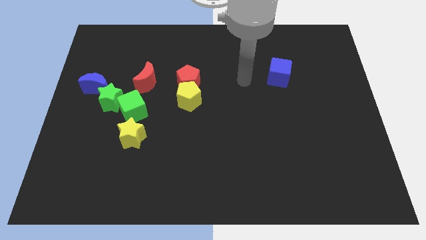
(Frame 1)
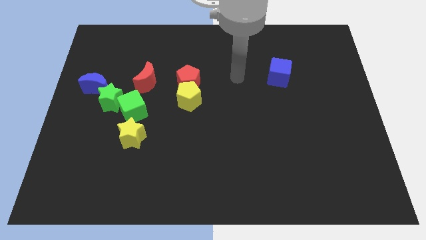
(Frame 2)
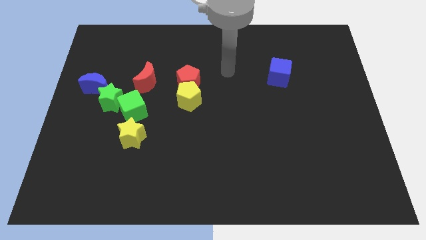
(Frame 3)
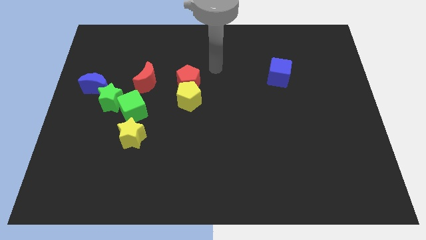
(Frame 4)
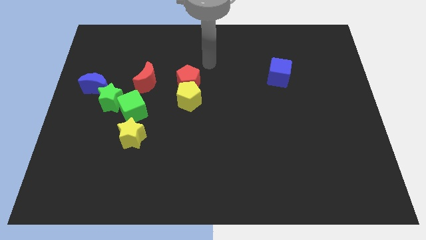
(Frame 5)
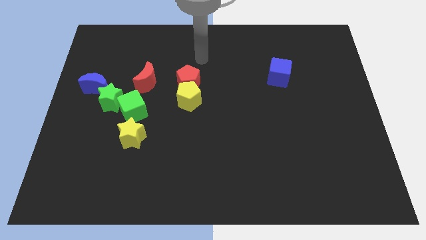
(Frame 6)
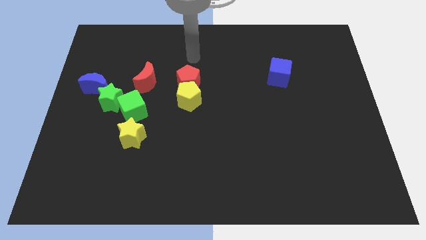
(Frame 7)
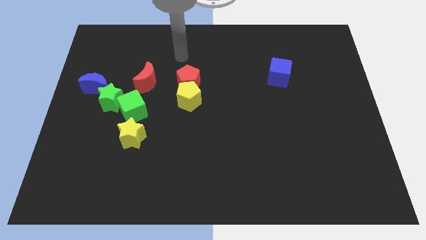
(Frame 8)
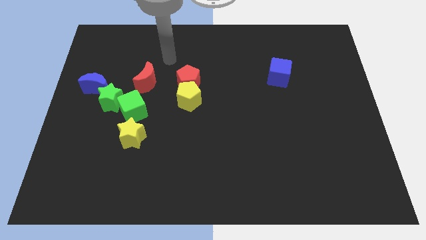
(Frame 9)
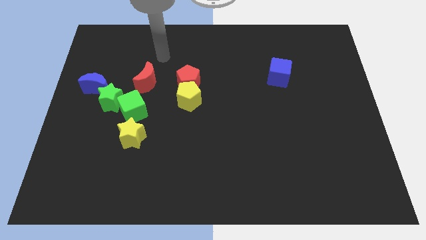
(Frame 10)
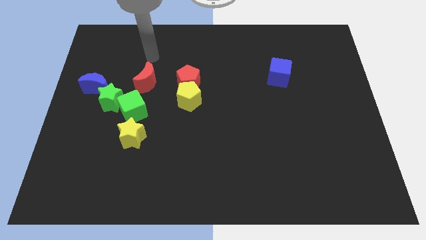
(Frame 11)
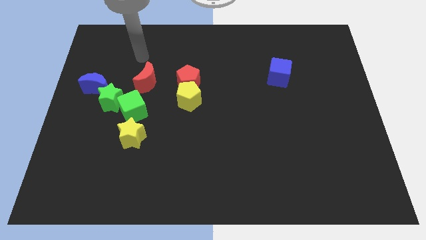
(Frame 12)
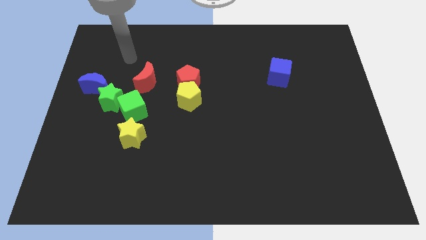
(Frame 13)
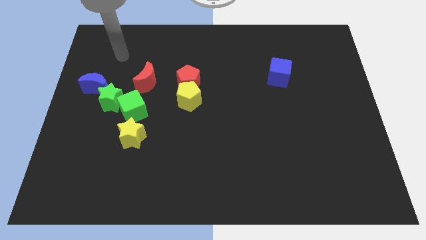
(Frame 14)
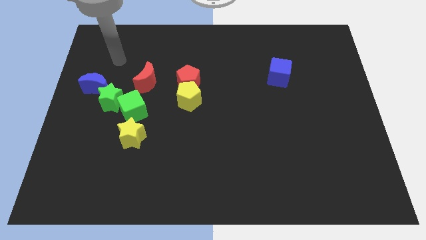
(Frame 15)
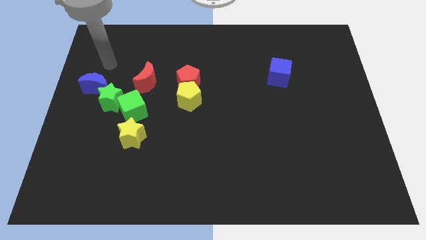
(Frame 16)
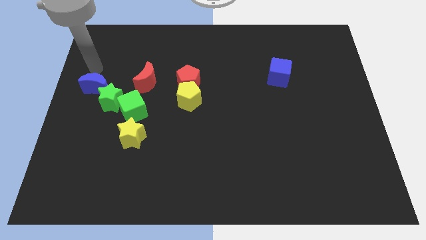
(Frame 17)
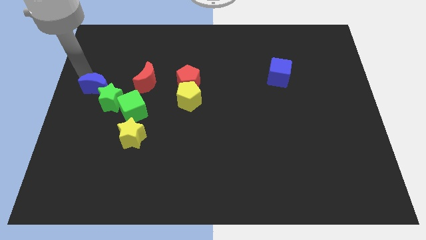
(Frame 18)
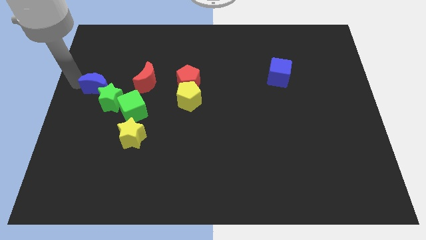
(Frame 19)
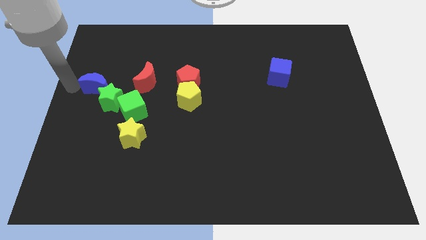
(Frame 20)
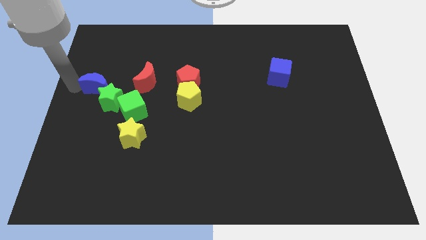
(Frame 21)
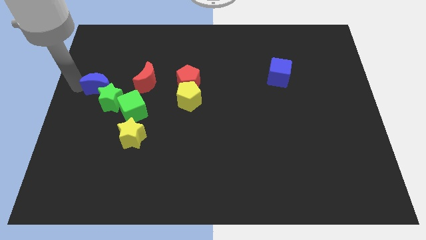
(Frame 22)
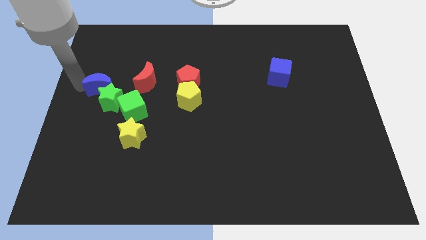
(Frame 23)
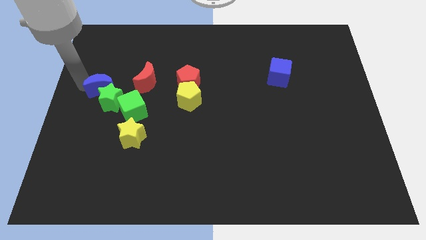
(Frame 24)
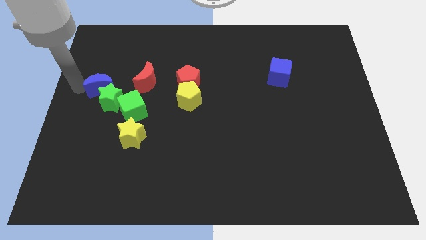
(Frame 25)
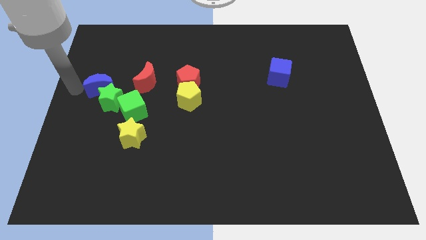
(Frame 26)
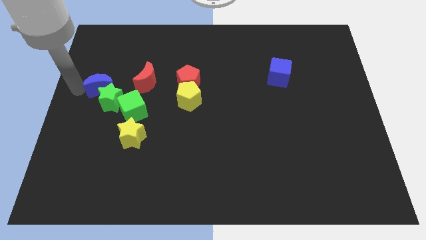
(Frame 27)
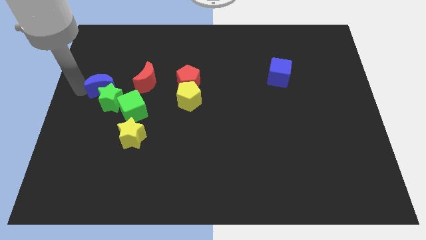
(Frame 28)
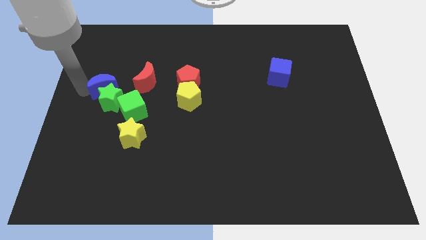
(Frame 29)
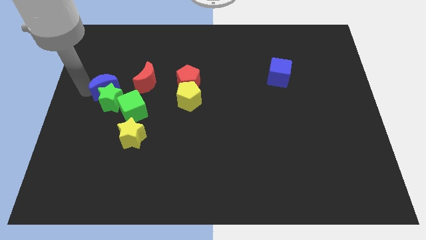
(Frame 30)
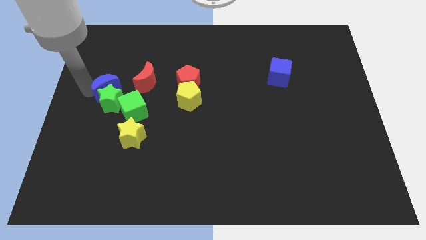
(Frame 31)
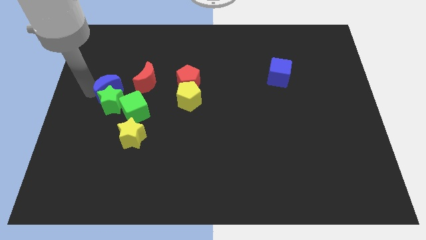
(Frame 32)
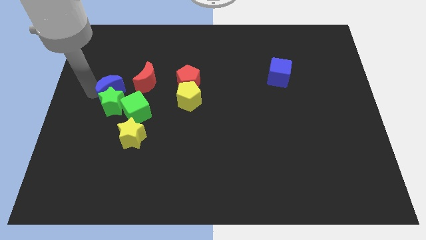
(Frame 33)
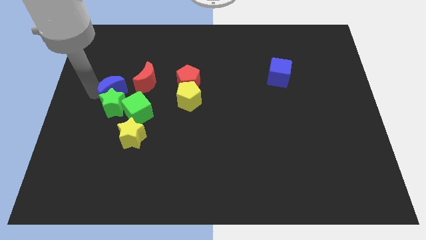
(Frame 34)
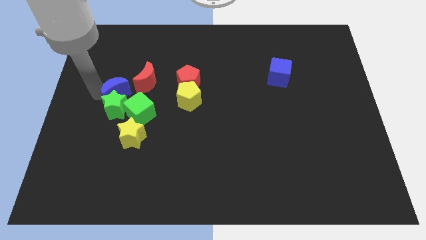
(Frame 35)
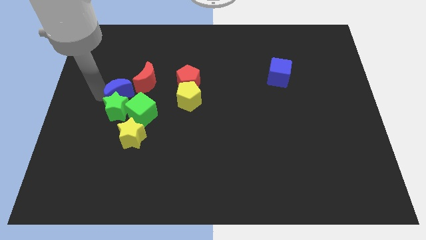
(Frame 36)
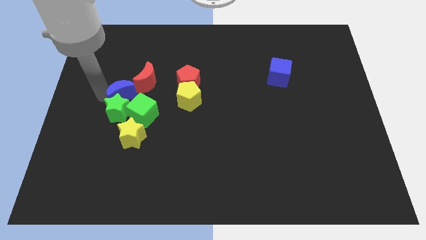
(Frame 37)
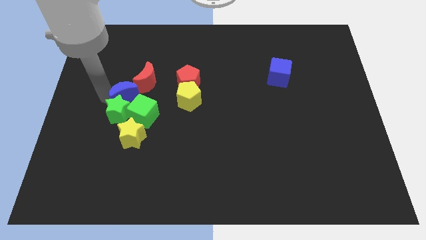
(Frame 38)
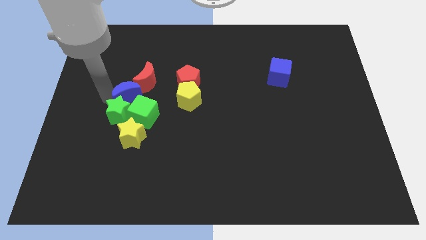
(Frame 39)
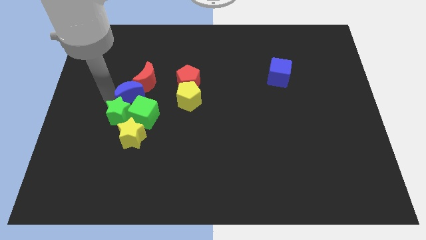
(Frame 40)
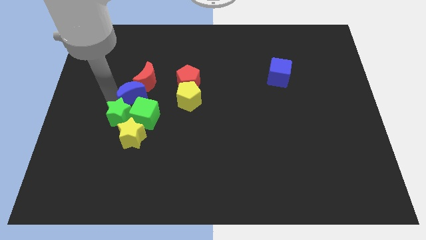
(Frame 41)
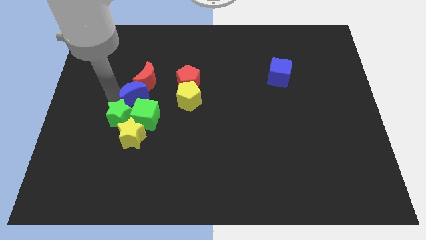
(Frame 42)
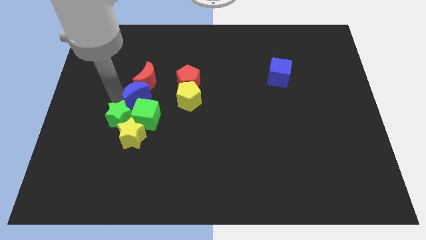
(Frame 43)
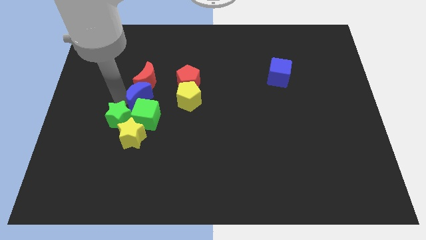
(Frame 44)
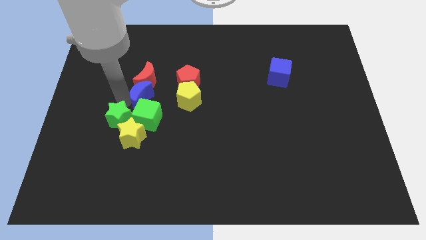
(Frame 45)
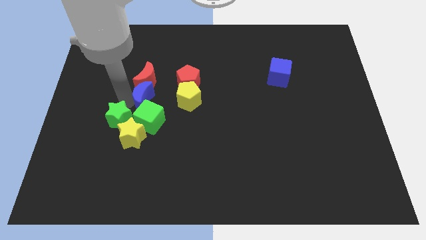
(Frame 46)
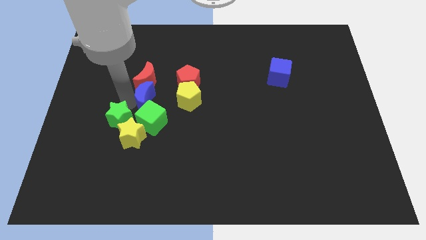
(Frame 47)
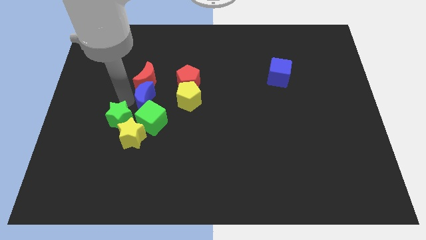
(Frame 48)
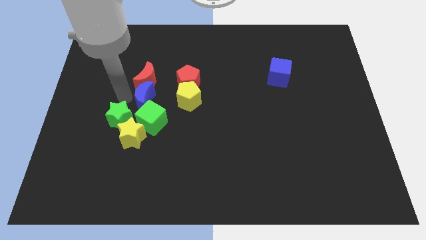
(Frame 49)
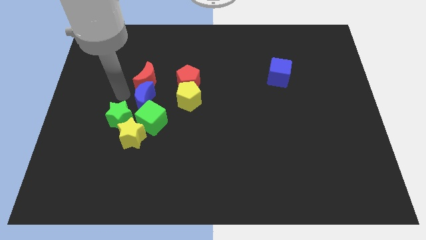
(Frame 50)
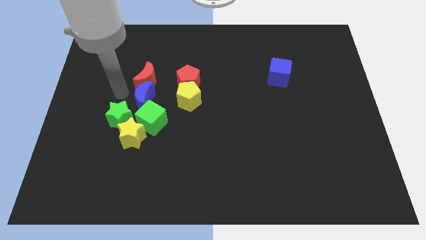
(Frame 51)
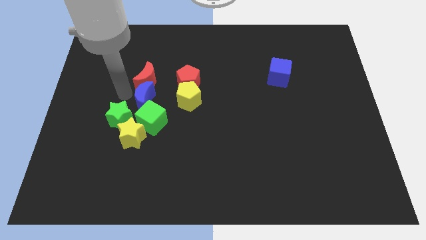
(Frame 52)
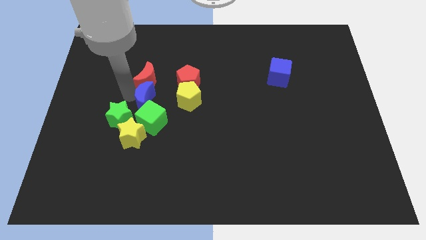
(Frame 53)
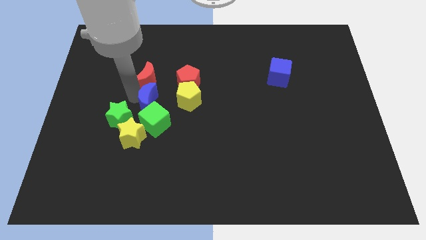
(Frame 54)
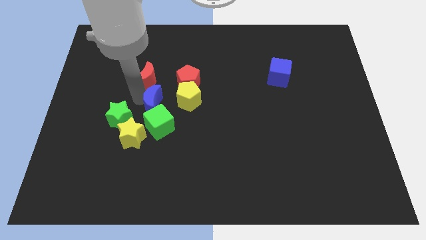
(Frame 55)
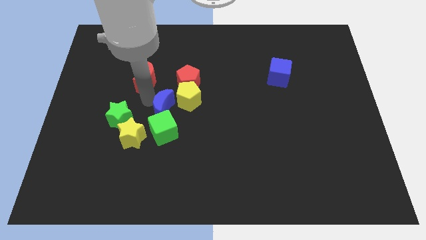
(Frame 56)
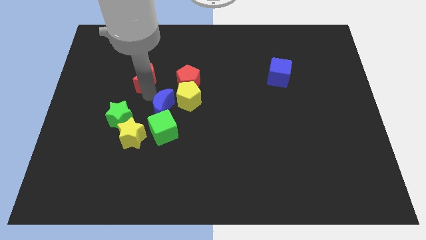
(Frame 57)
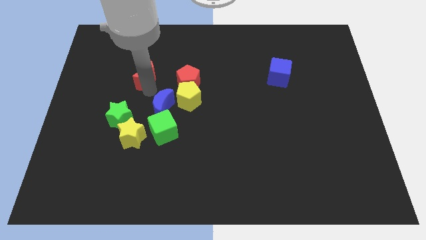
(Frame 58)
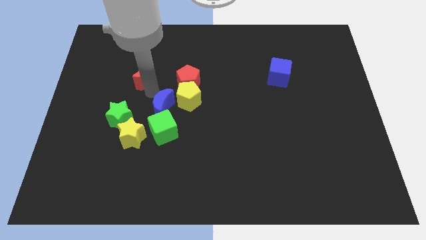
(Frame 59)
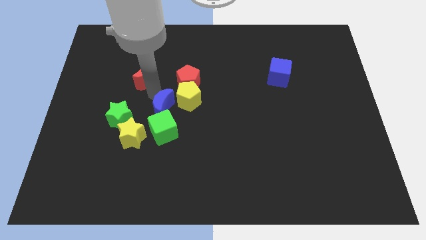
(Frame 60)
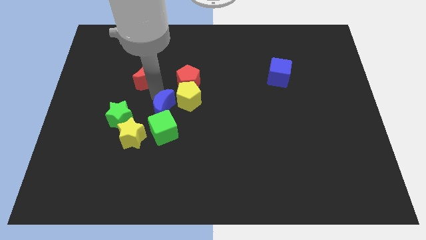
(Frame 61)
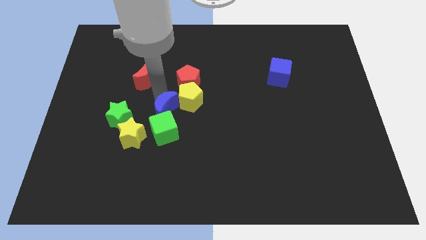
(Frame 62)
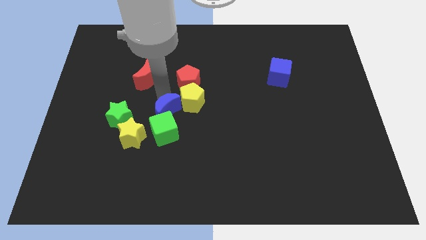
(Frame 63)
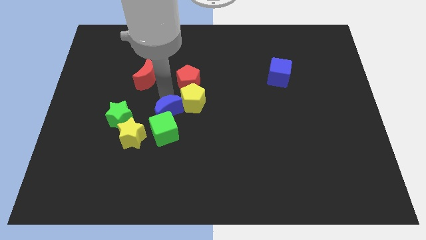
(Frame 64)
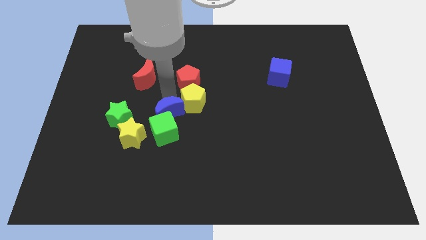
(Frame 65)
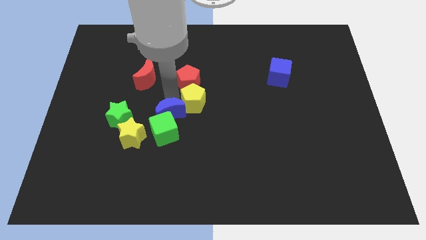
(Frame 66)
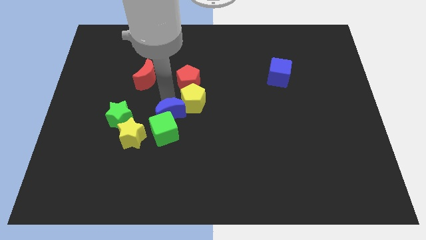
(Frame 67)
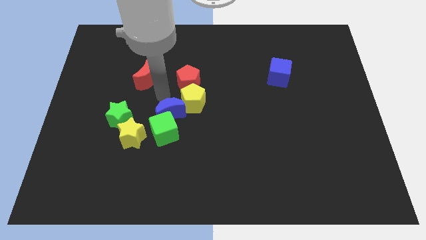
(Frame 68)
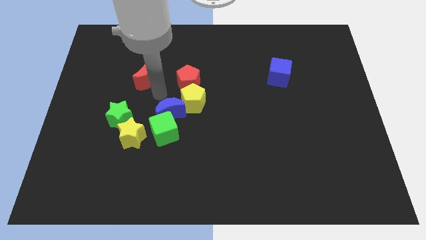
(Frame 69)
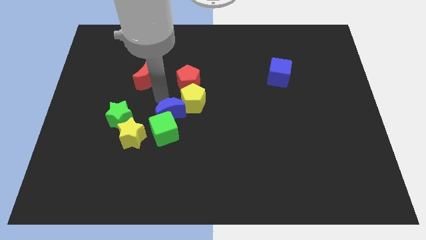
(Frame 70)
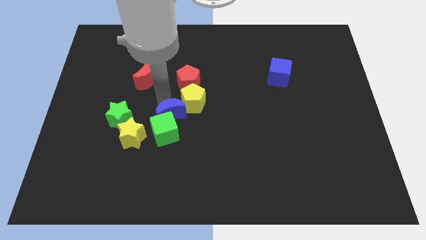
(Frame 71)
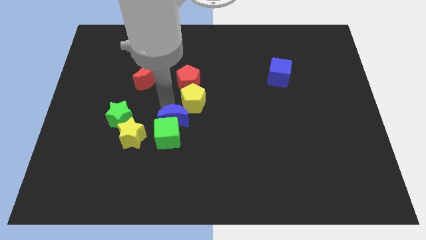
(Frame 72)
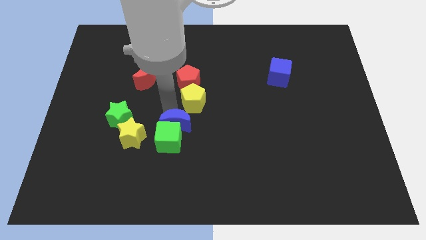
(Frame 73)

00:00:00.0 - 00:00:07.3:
push the blue moon diagonally down and right

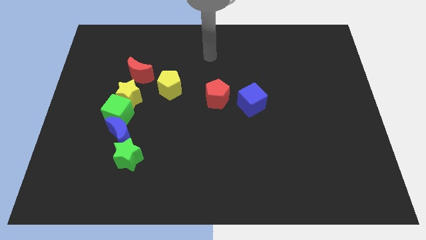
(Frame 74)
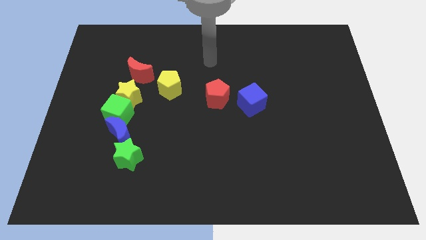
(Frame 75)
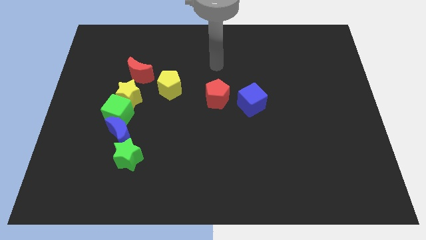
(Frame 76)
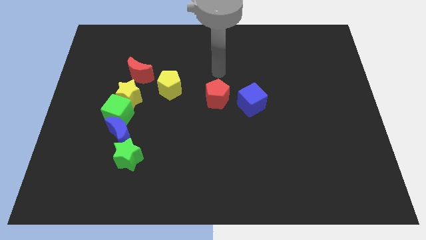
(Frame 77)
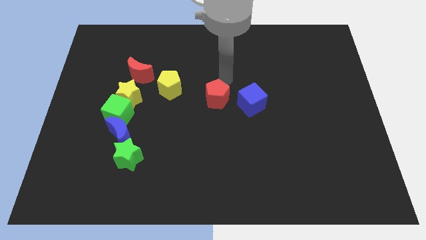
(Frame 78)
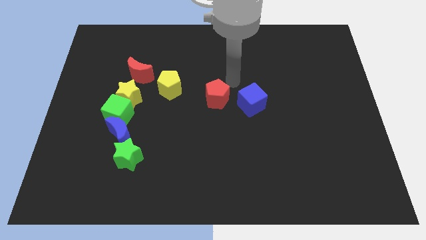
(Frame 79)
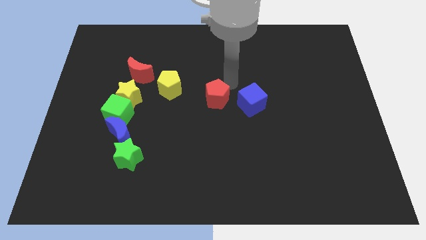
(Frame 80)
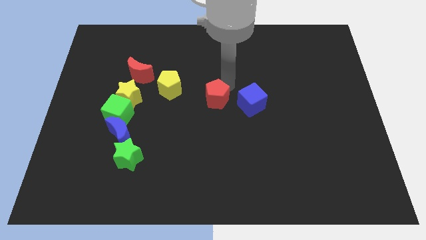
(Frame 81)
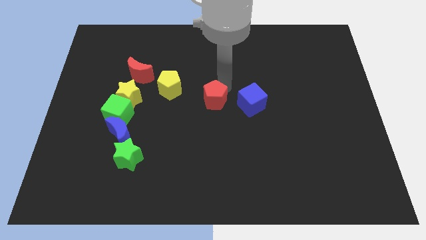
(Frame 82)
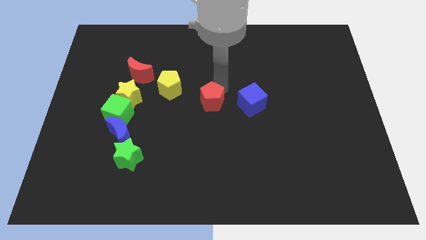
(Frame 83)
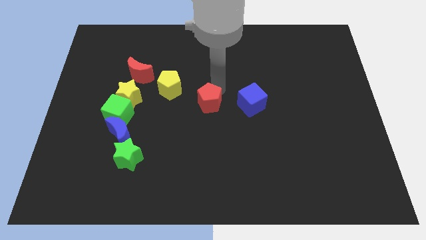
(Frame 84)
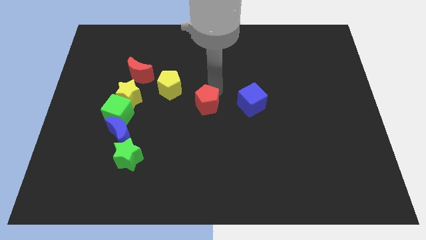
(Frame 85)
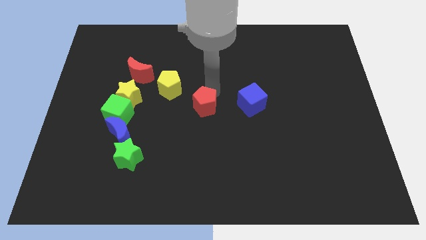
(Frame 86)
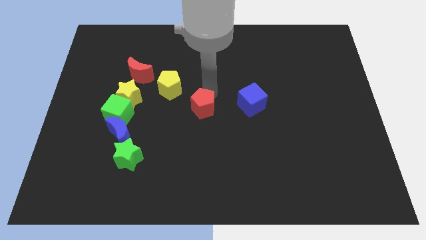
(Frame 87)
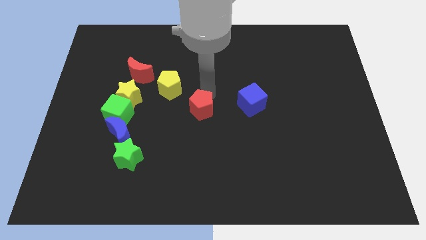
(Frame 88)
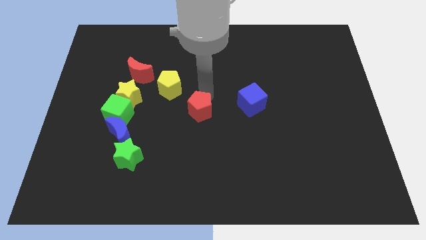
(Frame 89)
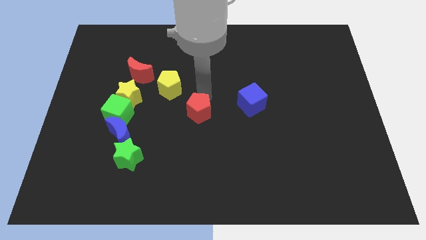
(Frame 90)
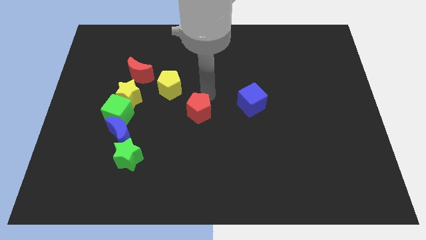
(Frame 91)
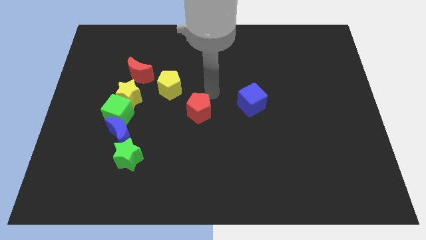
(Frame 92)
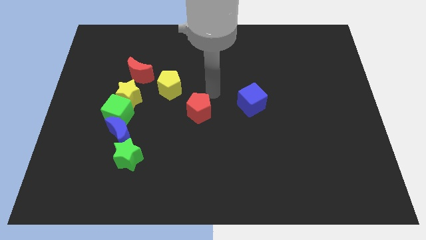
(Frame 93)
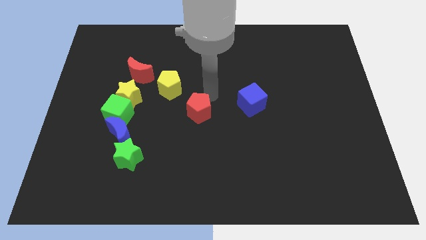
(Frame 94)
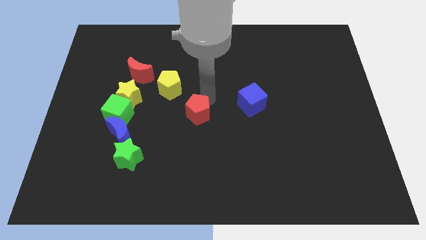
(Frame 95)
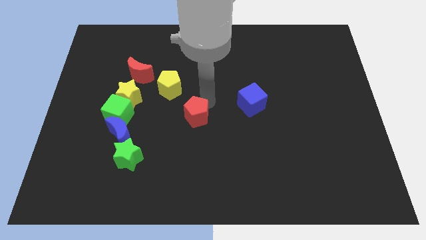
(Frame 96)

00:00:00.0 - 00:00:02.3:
move the red pentagon slightly down and left diagonally
